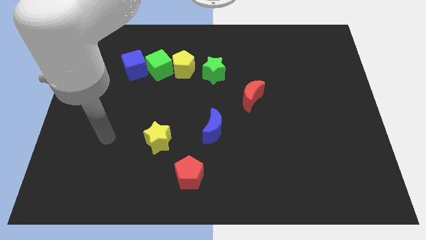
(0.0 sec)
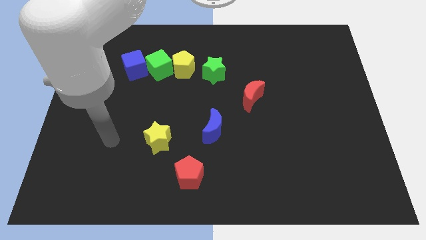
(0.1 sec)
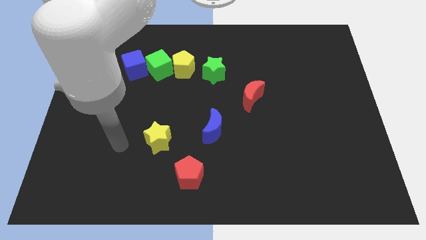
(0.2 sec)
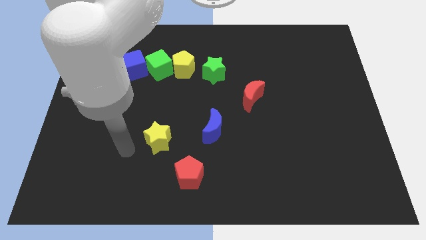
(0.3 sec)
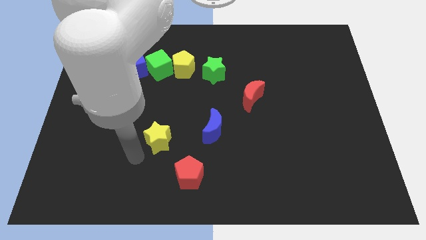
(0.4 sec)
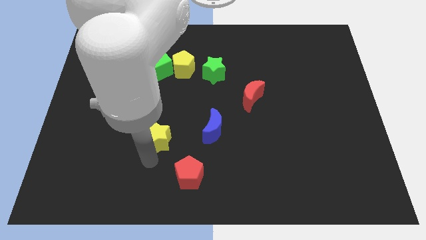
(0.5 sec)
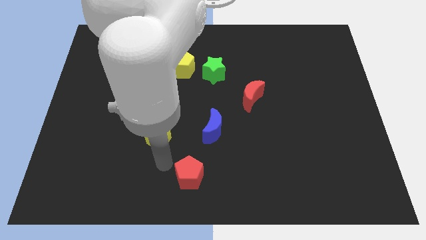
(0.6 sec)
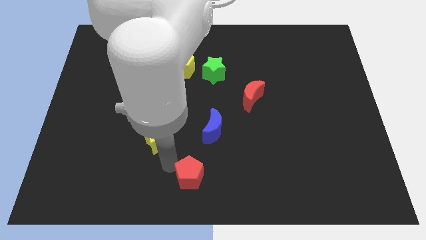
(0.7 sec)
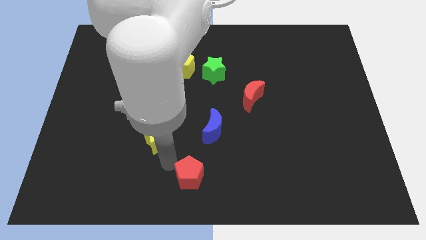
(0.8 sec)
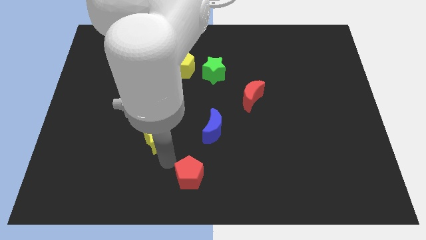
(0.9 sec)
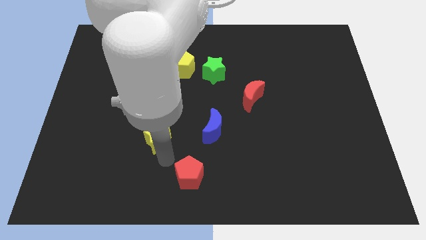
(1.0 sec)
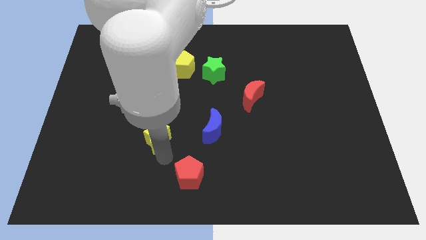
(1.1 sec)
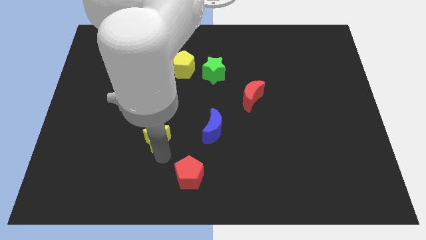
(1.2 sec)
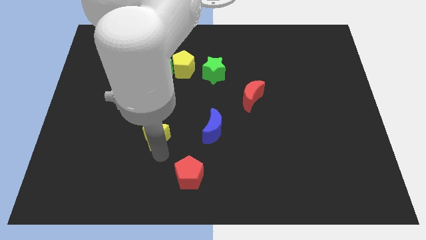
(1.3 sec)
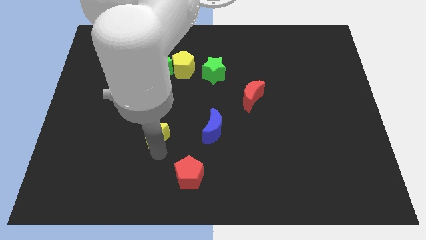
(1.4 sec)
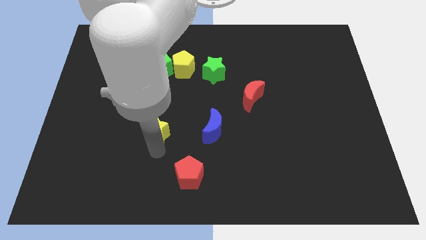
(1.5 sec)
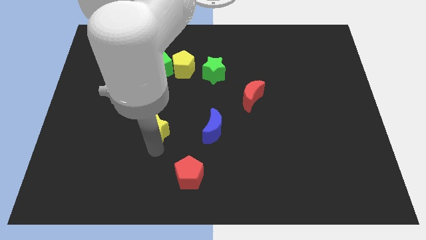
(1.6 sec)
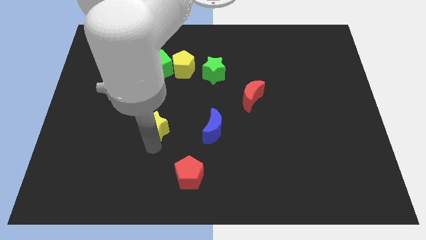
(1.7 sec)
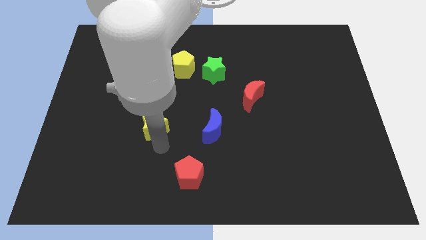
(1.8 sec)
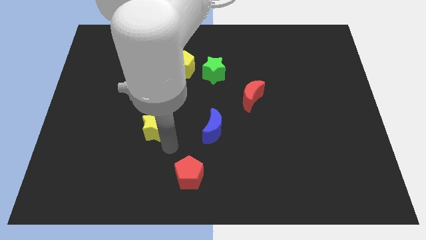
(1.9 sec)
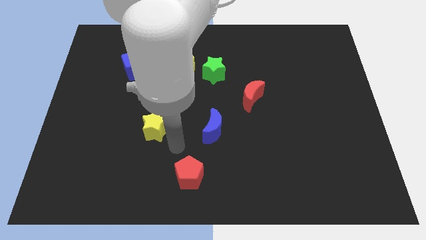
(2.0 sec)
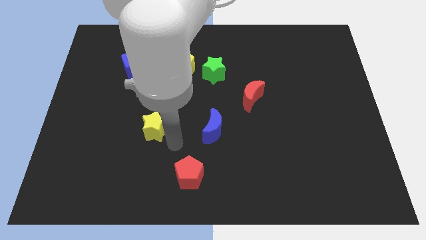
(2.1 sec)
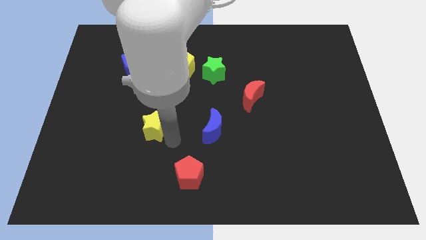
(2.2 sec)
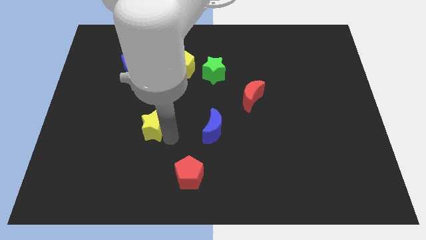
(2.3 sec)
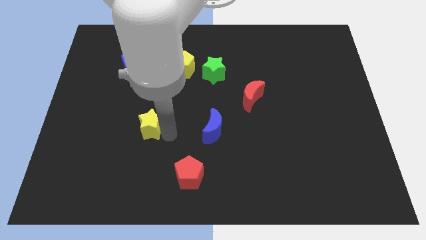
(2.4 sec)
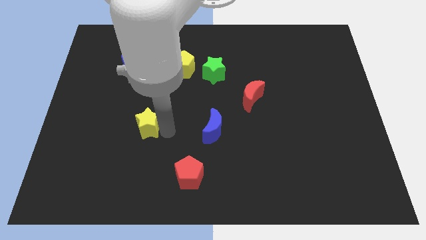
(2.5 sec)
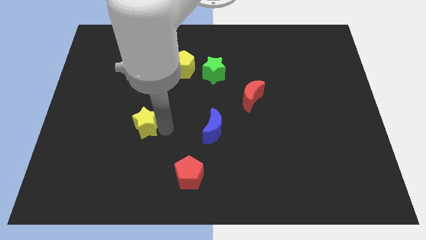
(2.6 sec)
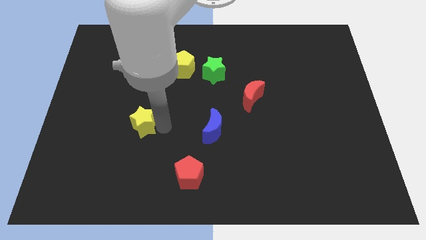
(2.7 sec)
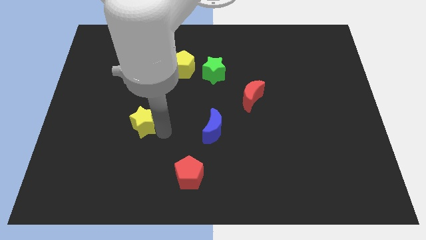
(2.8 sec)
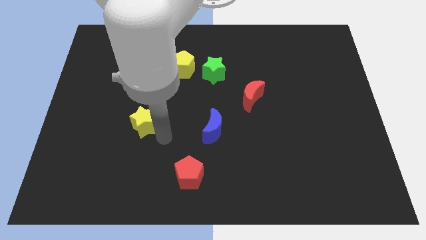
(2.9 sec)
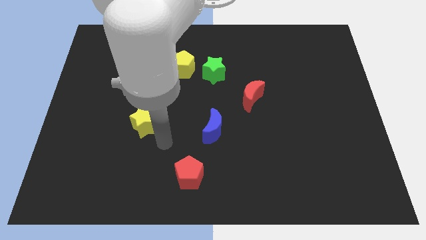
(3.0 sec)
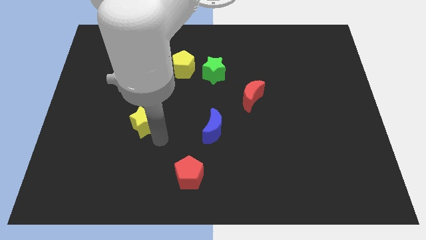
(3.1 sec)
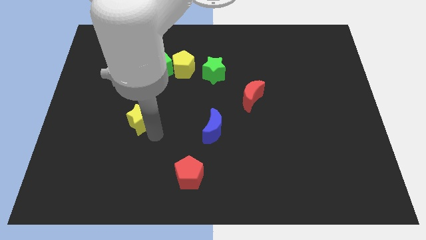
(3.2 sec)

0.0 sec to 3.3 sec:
slightly move the yellow star up and to the left diagonally

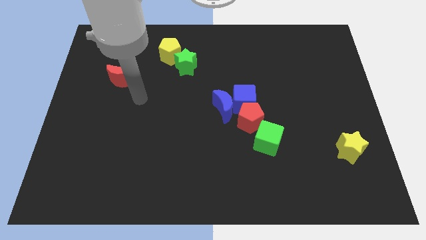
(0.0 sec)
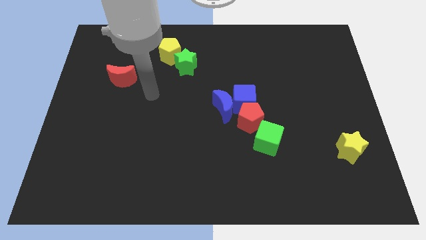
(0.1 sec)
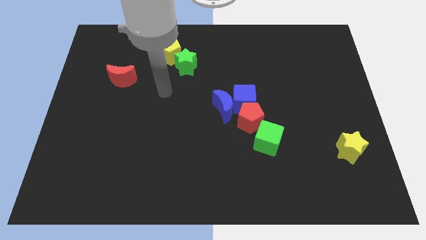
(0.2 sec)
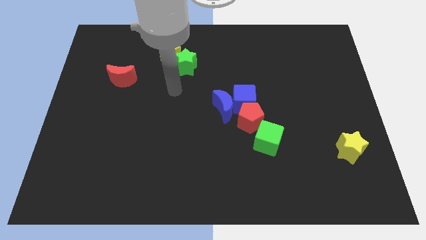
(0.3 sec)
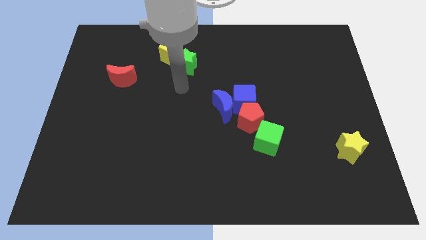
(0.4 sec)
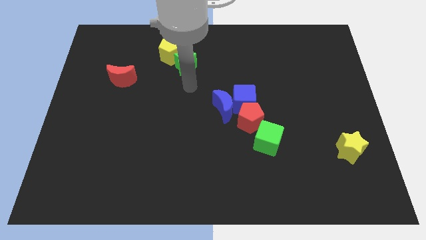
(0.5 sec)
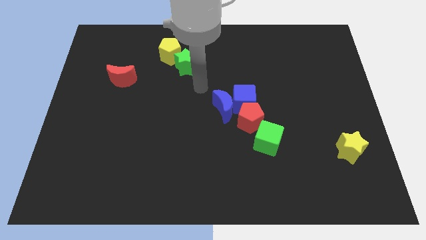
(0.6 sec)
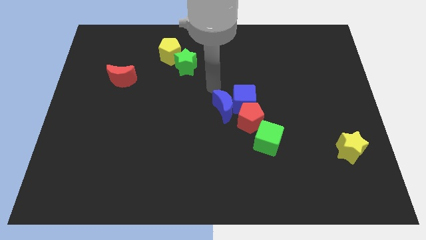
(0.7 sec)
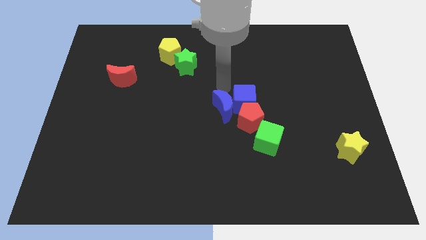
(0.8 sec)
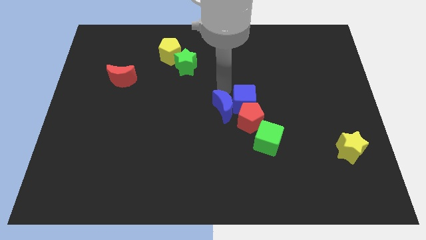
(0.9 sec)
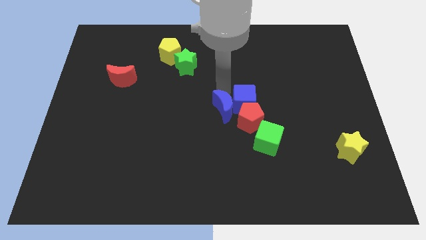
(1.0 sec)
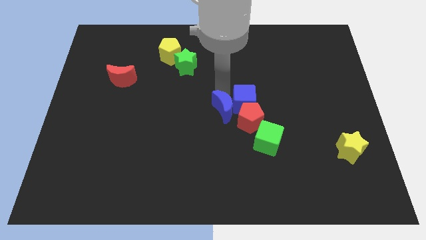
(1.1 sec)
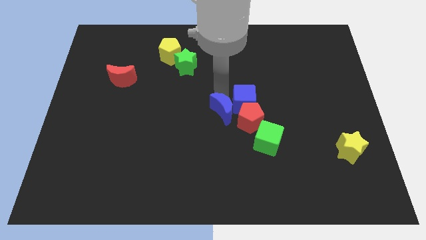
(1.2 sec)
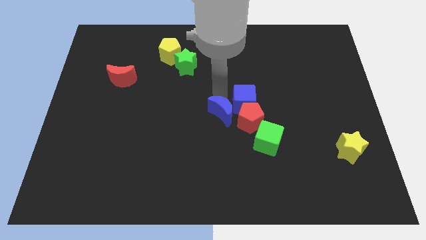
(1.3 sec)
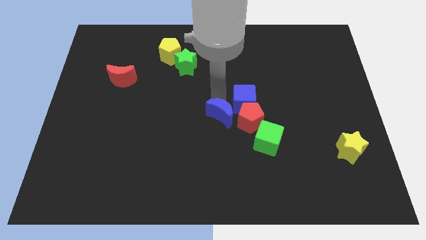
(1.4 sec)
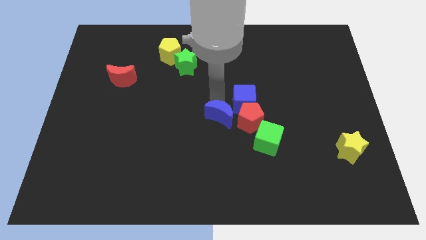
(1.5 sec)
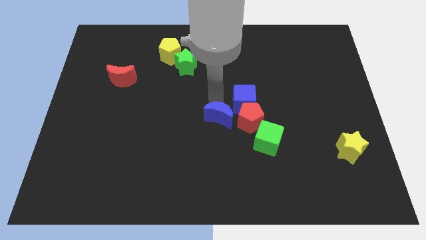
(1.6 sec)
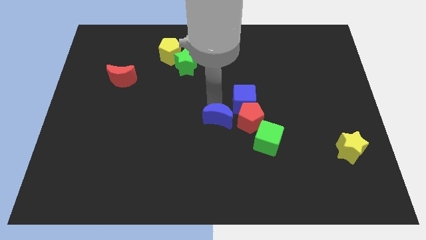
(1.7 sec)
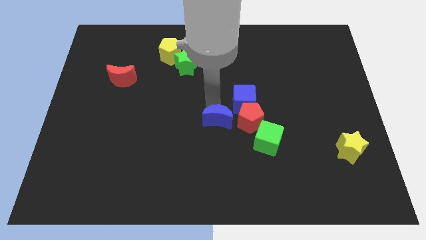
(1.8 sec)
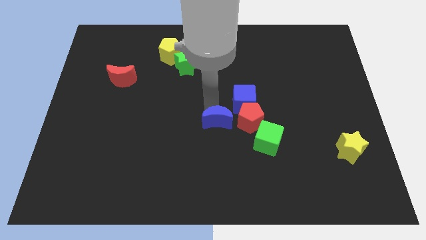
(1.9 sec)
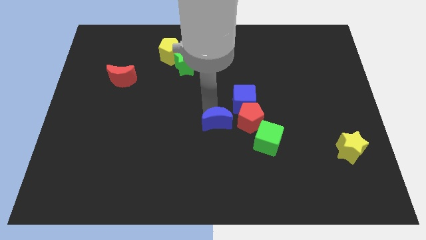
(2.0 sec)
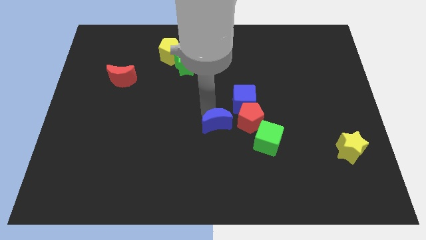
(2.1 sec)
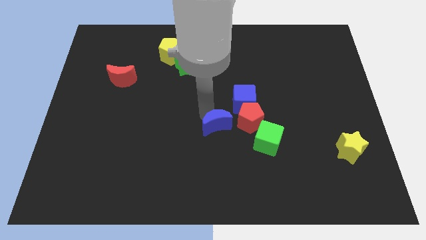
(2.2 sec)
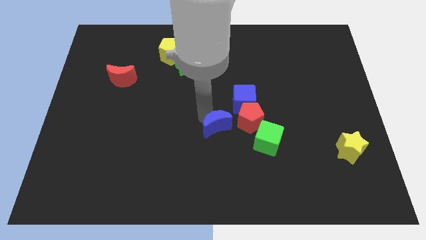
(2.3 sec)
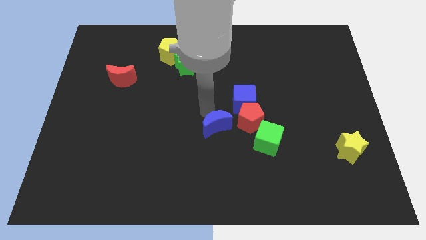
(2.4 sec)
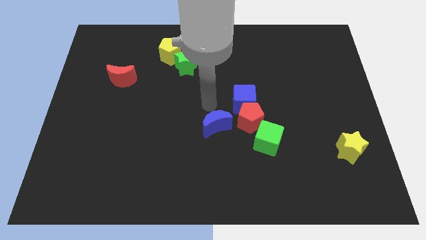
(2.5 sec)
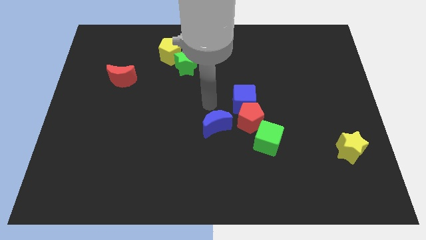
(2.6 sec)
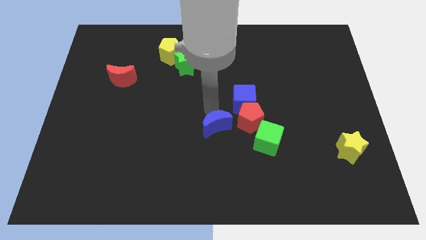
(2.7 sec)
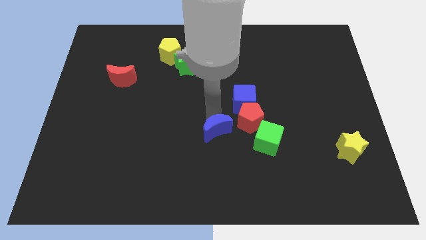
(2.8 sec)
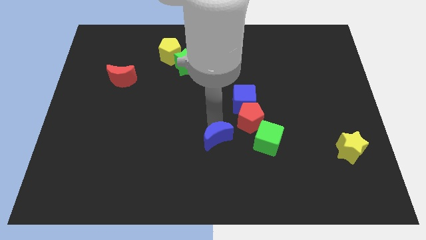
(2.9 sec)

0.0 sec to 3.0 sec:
slightly push the blue moon downwards

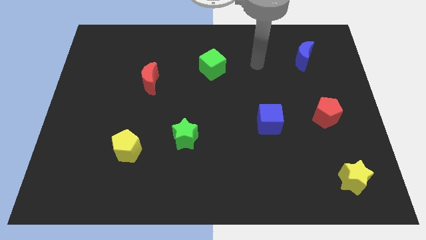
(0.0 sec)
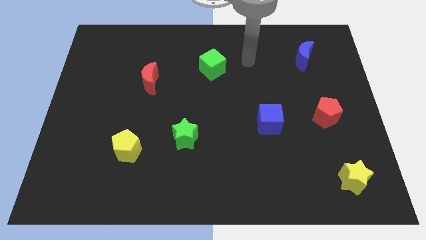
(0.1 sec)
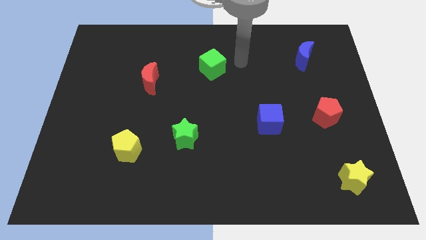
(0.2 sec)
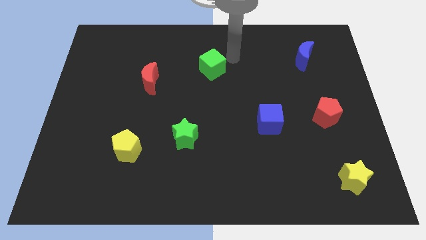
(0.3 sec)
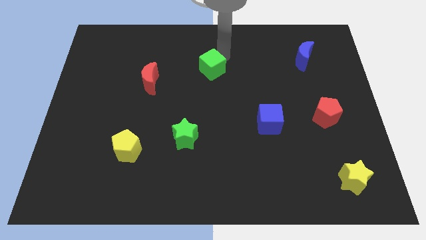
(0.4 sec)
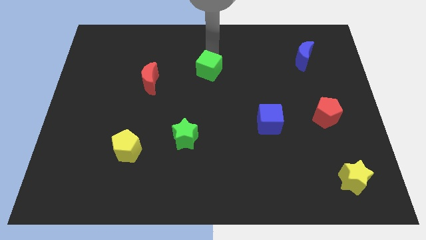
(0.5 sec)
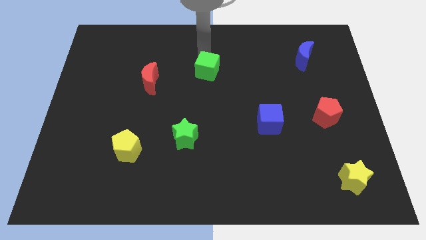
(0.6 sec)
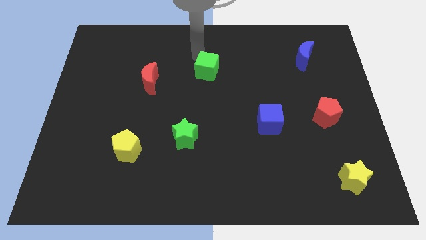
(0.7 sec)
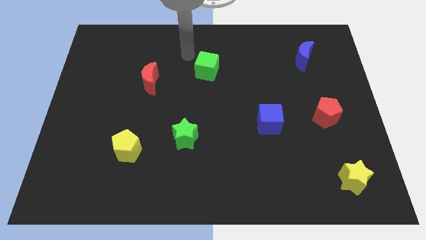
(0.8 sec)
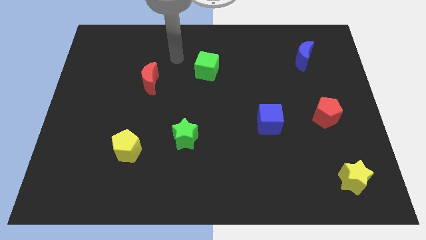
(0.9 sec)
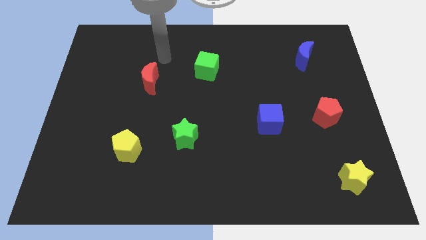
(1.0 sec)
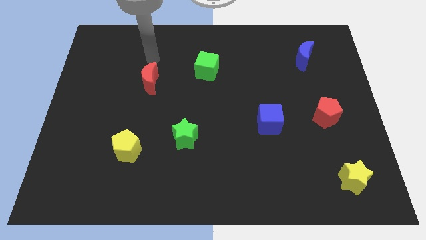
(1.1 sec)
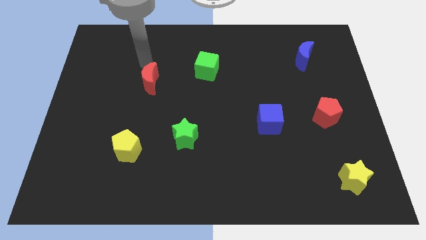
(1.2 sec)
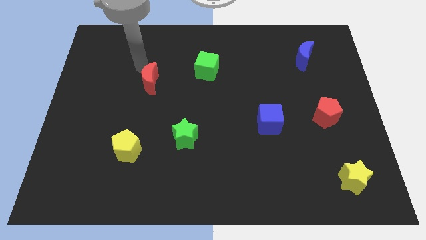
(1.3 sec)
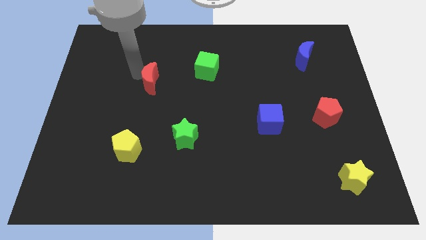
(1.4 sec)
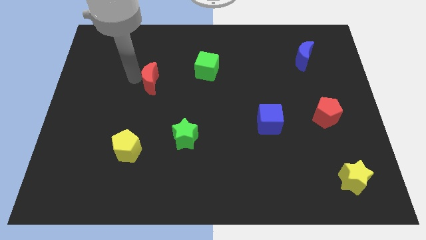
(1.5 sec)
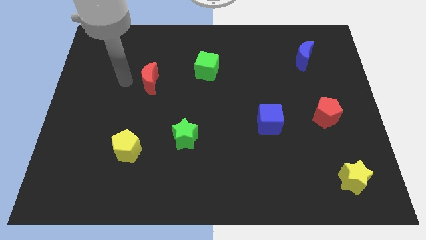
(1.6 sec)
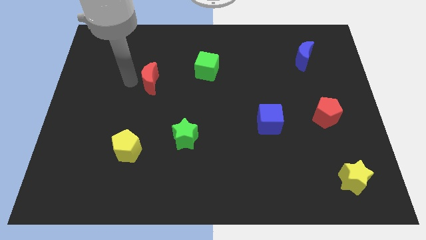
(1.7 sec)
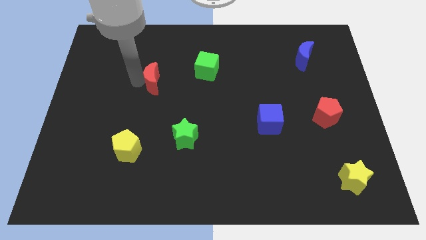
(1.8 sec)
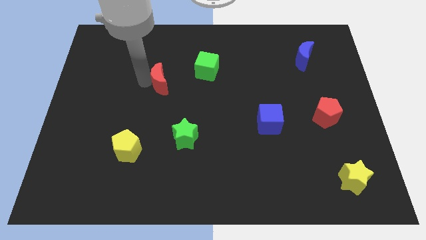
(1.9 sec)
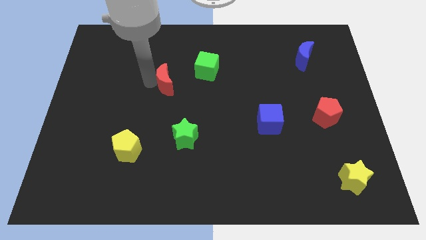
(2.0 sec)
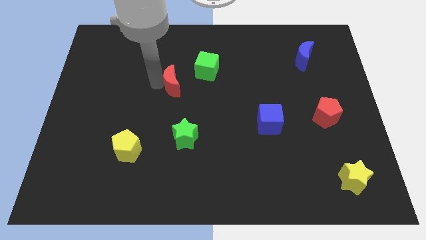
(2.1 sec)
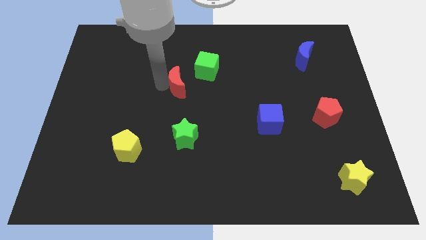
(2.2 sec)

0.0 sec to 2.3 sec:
slightly slide the red moon to the right
